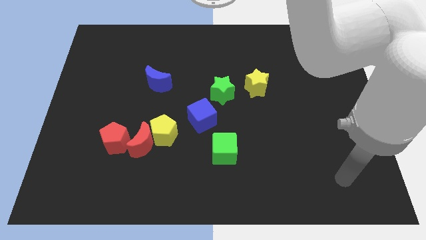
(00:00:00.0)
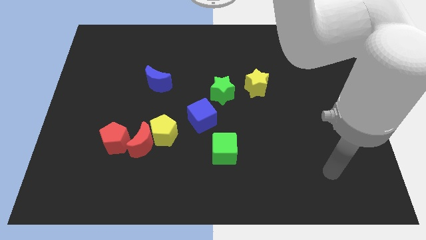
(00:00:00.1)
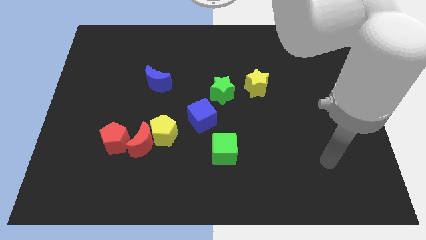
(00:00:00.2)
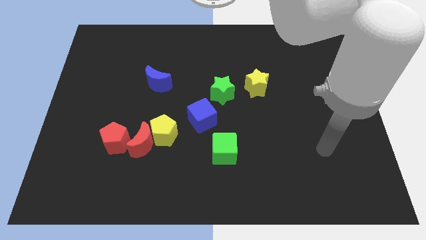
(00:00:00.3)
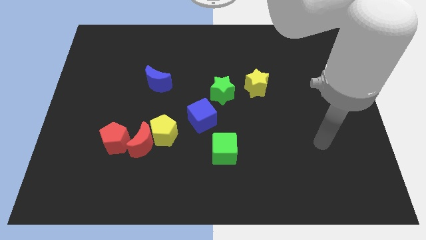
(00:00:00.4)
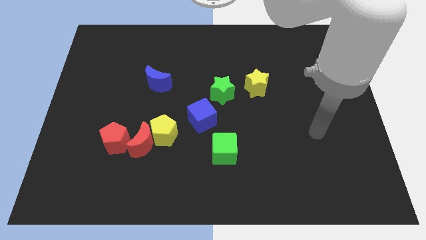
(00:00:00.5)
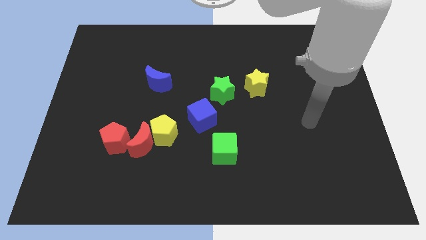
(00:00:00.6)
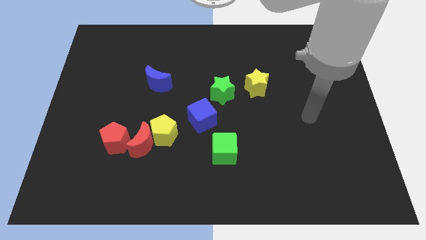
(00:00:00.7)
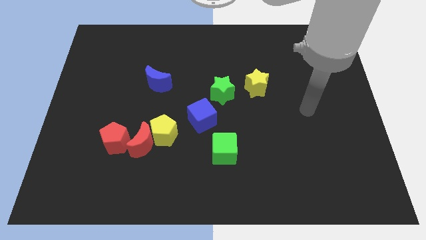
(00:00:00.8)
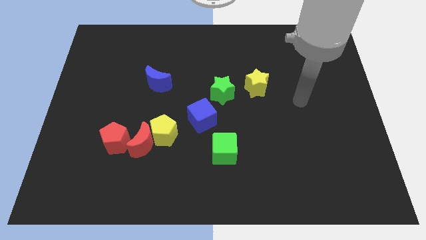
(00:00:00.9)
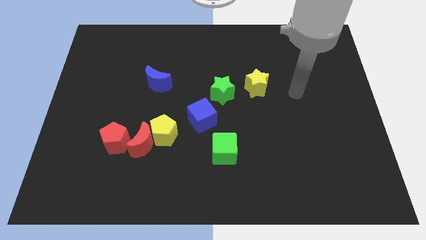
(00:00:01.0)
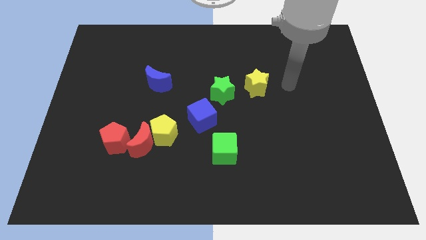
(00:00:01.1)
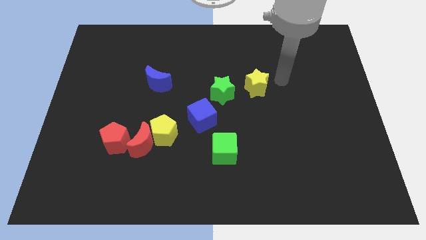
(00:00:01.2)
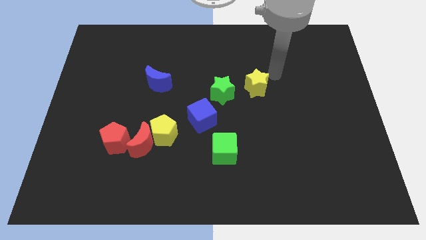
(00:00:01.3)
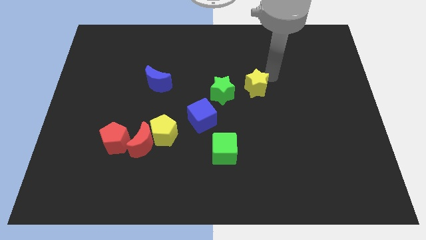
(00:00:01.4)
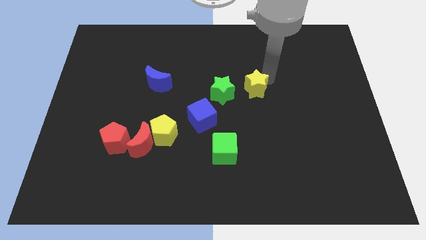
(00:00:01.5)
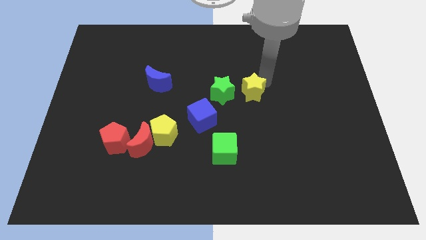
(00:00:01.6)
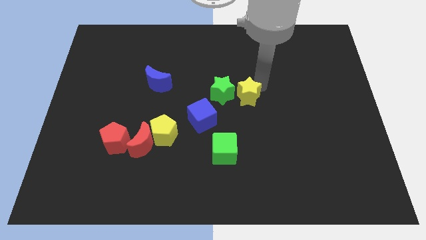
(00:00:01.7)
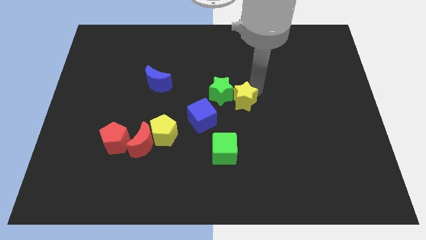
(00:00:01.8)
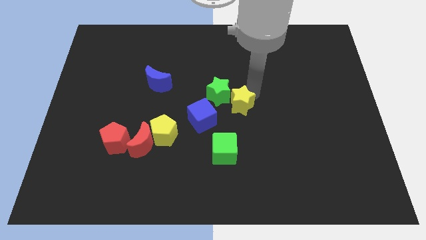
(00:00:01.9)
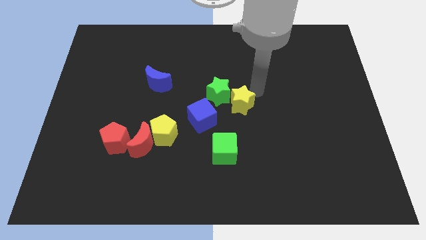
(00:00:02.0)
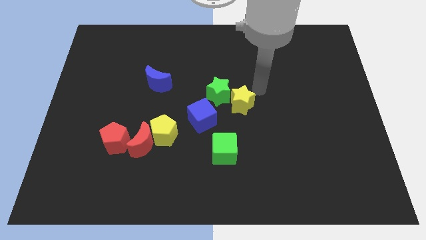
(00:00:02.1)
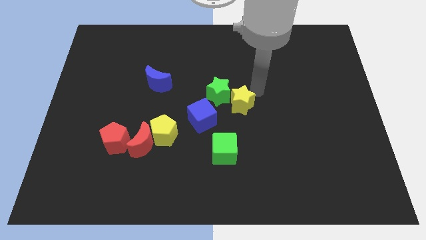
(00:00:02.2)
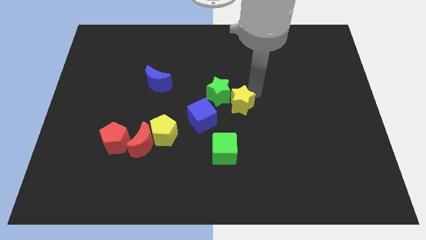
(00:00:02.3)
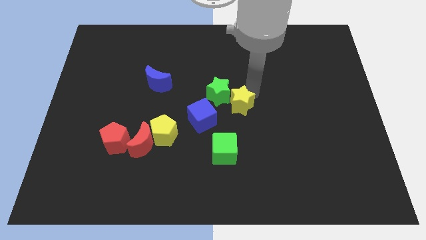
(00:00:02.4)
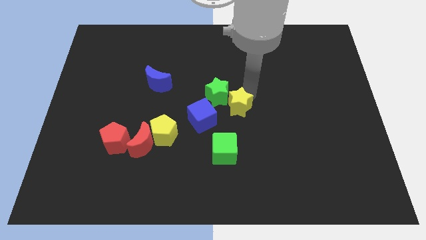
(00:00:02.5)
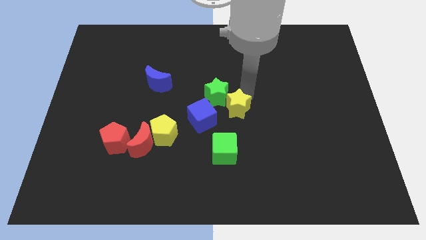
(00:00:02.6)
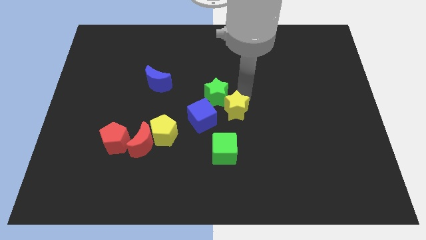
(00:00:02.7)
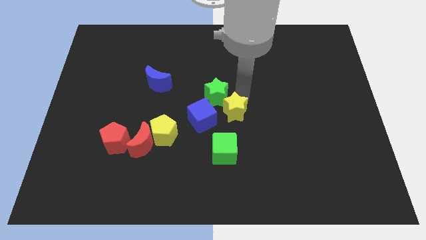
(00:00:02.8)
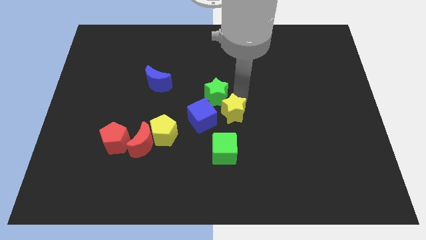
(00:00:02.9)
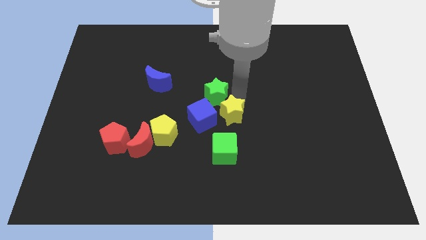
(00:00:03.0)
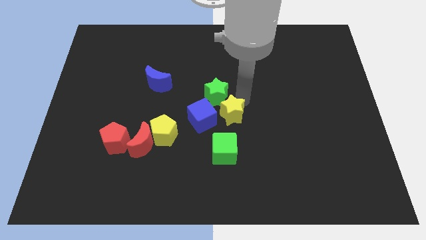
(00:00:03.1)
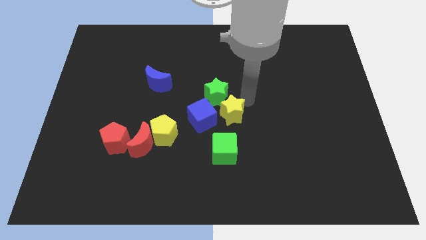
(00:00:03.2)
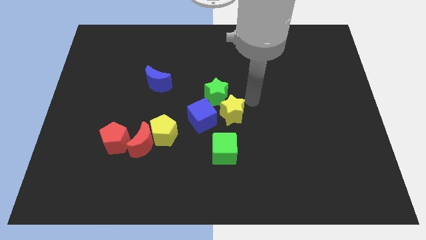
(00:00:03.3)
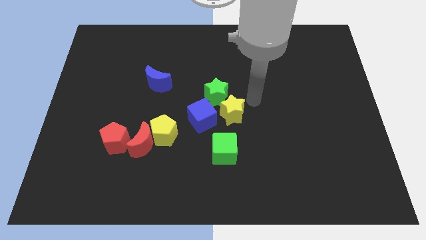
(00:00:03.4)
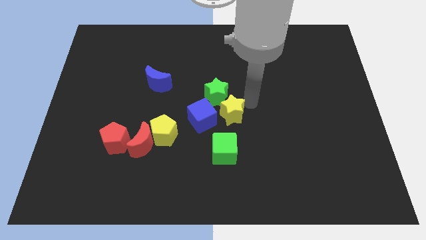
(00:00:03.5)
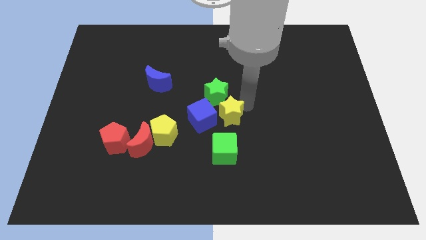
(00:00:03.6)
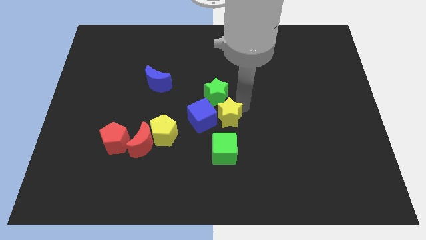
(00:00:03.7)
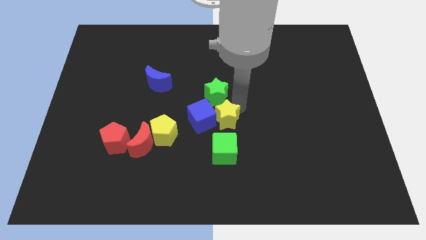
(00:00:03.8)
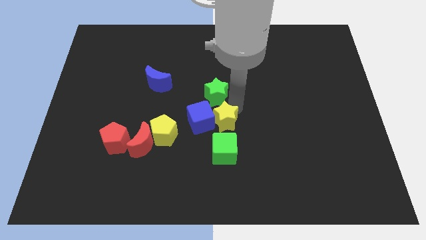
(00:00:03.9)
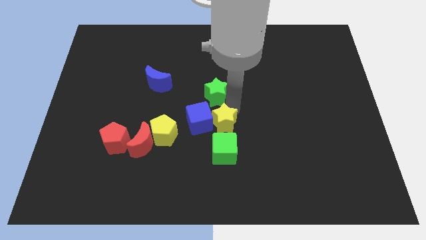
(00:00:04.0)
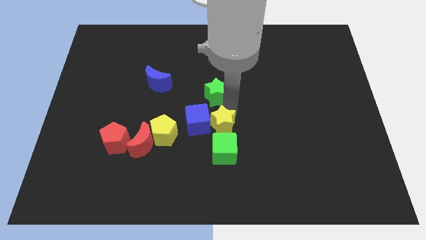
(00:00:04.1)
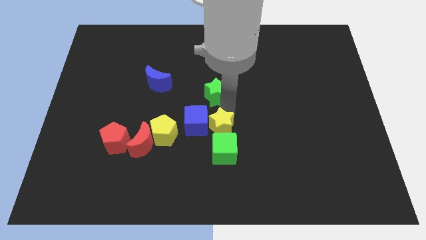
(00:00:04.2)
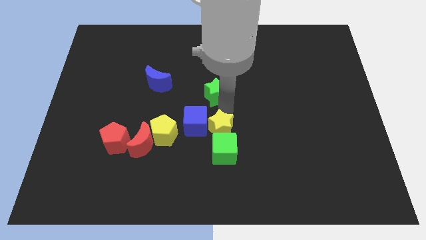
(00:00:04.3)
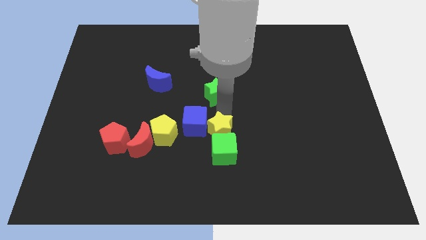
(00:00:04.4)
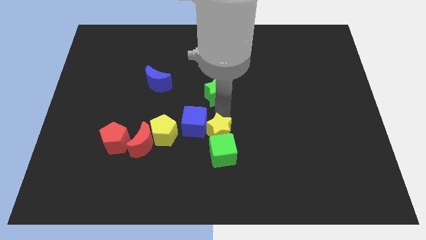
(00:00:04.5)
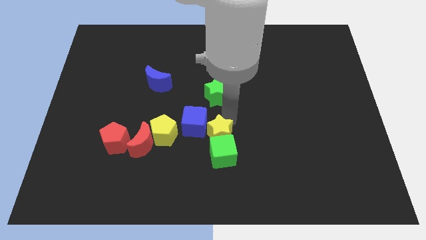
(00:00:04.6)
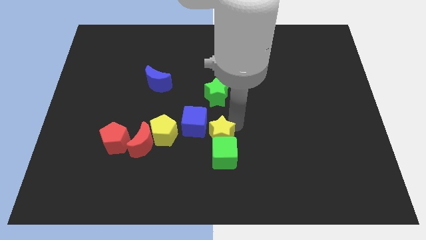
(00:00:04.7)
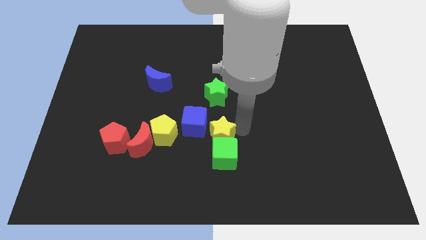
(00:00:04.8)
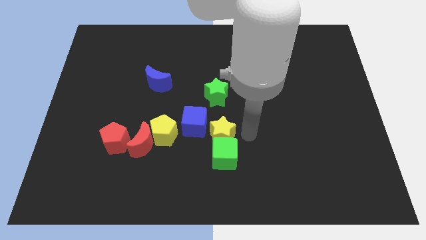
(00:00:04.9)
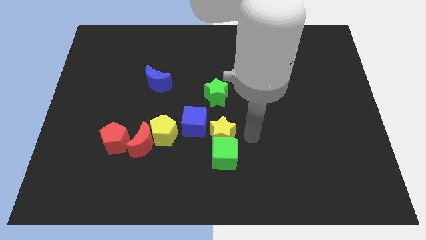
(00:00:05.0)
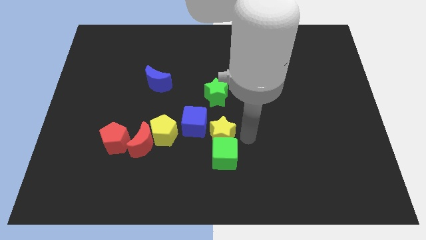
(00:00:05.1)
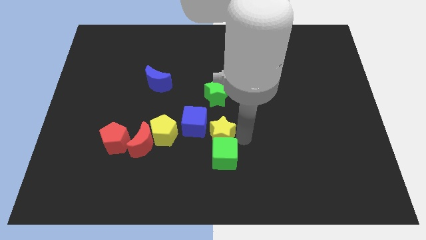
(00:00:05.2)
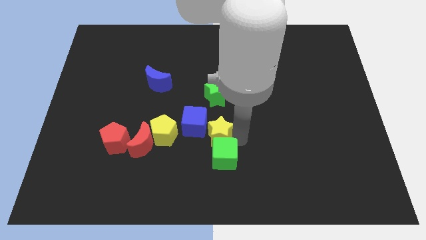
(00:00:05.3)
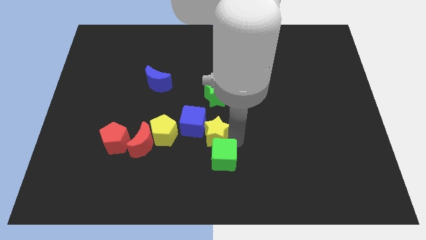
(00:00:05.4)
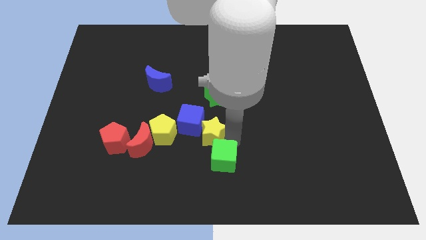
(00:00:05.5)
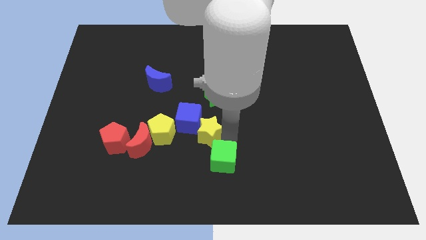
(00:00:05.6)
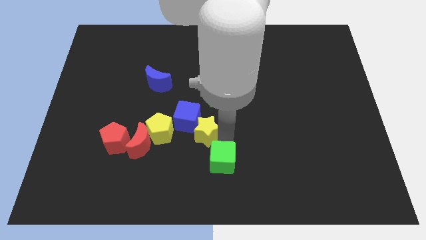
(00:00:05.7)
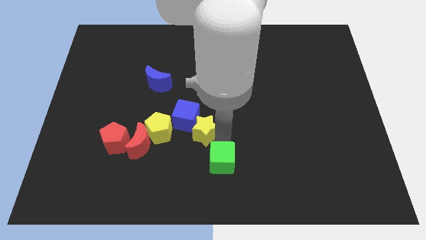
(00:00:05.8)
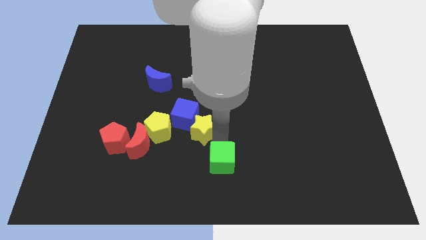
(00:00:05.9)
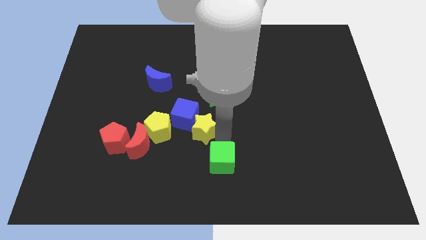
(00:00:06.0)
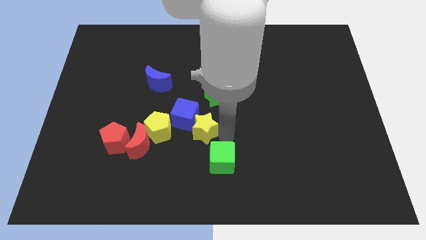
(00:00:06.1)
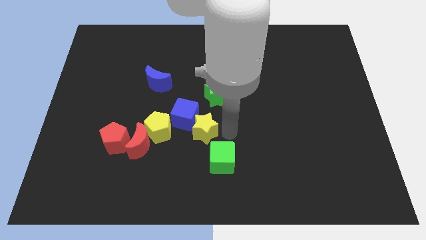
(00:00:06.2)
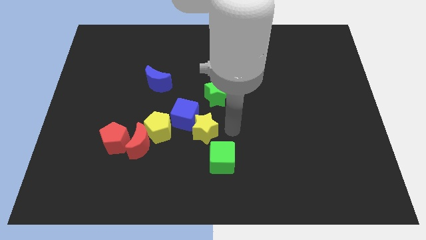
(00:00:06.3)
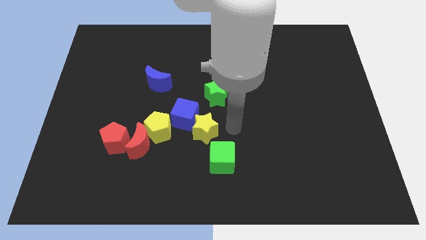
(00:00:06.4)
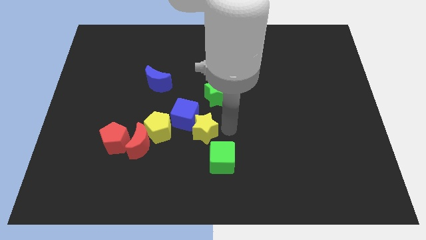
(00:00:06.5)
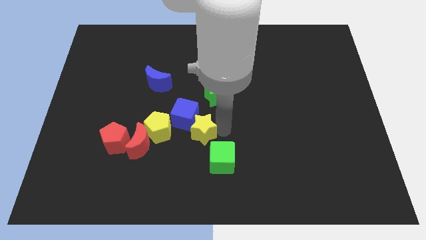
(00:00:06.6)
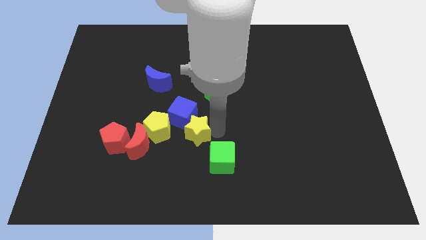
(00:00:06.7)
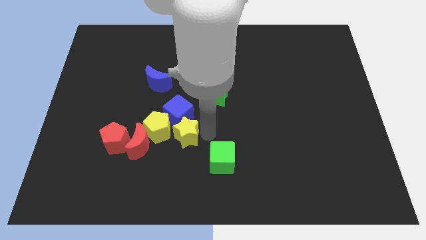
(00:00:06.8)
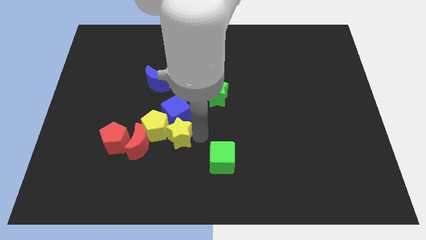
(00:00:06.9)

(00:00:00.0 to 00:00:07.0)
push the yellow star next to the yellow pentagon

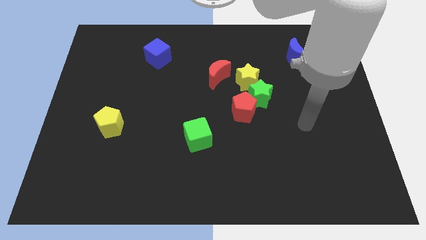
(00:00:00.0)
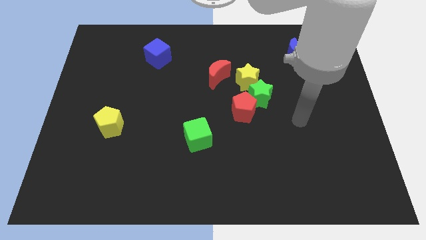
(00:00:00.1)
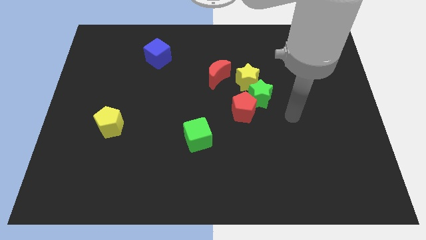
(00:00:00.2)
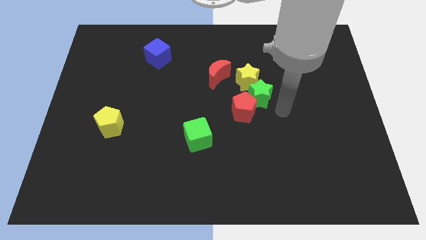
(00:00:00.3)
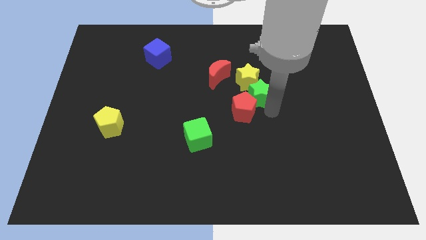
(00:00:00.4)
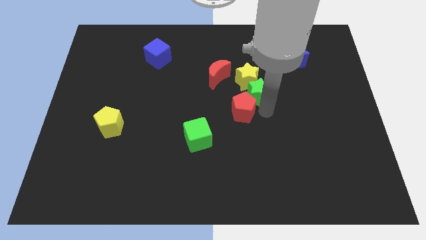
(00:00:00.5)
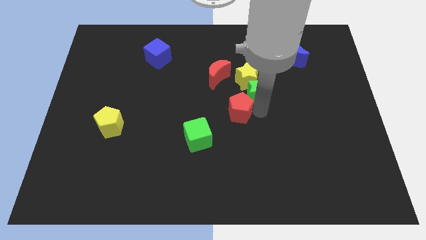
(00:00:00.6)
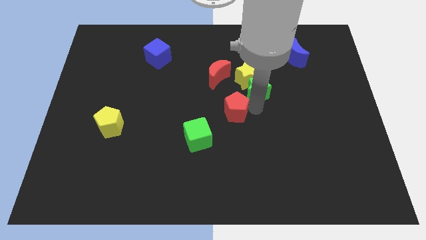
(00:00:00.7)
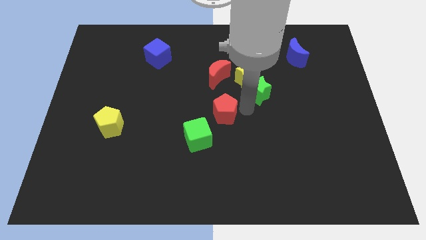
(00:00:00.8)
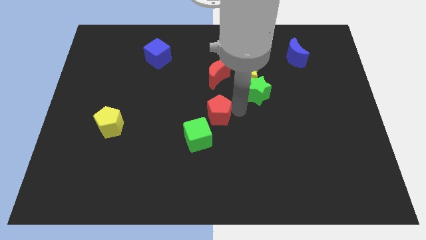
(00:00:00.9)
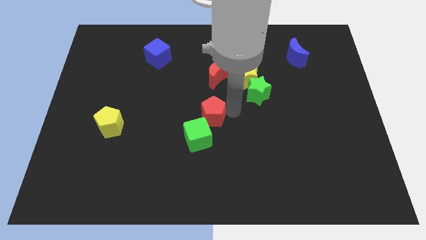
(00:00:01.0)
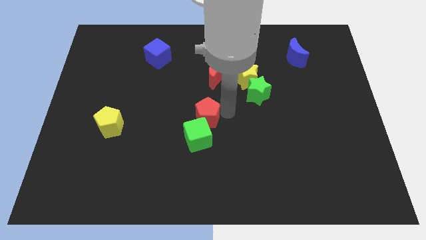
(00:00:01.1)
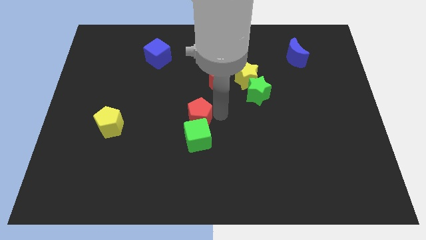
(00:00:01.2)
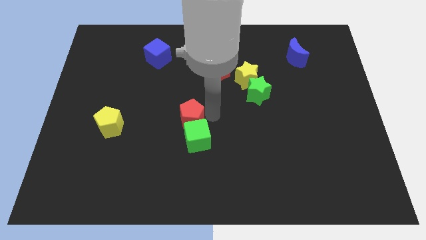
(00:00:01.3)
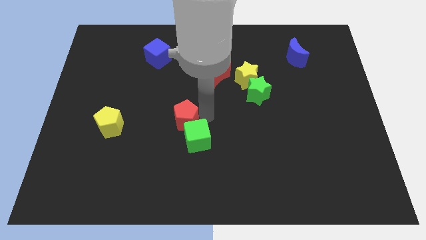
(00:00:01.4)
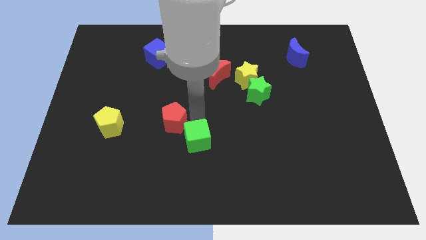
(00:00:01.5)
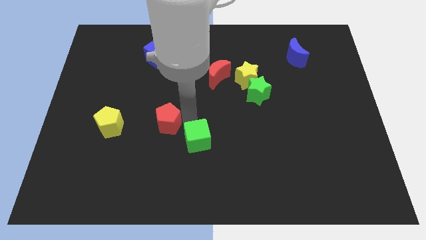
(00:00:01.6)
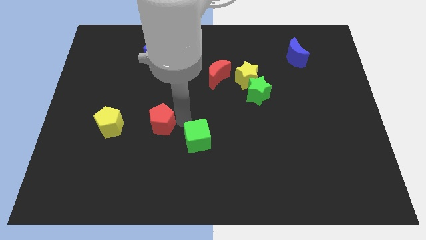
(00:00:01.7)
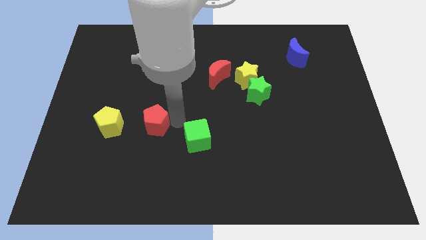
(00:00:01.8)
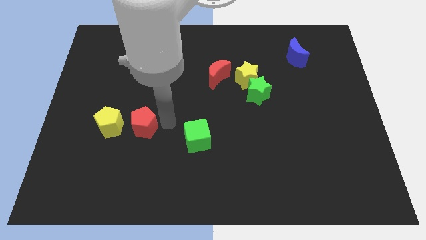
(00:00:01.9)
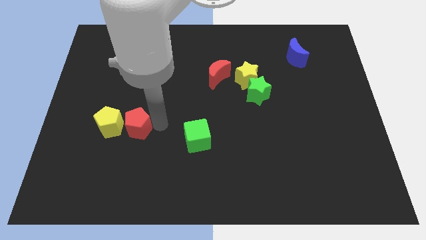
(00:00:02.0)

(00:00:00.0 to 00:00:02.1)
move the red pentagon next to the yellow pentagon
